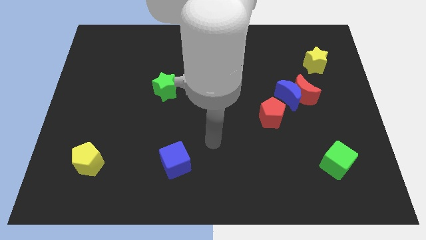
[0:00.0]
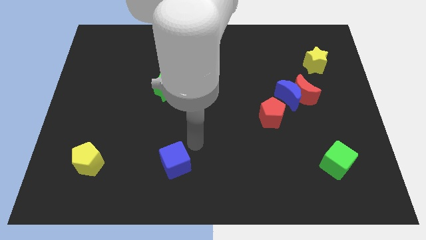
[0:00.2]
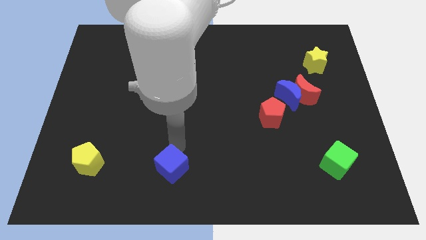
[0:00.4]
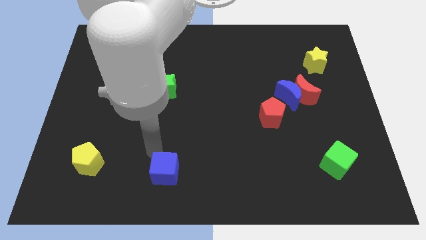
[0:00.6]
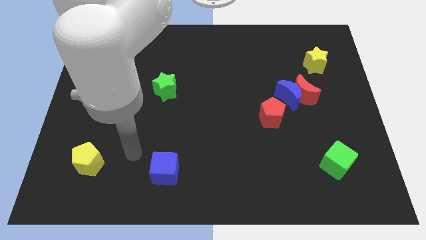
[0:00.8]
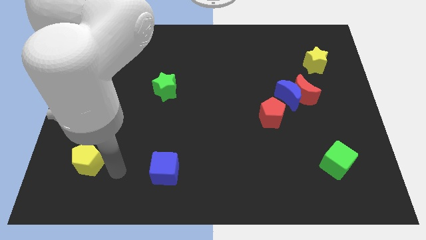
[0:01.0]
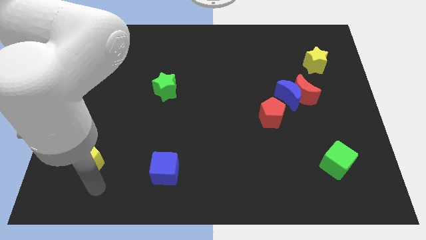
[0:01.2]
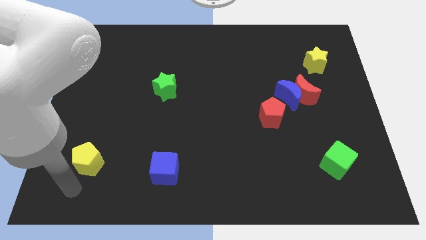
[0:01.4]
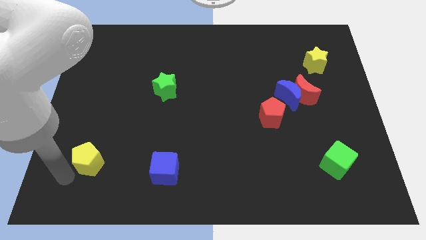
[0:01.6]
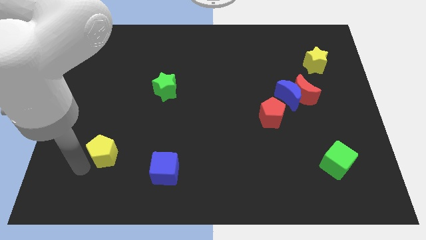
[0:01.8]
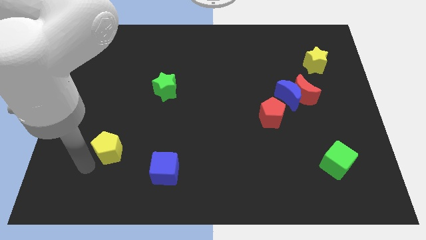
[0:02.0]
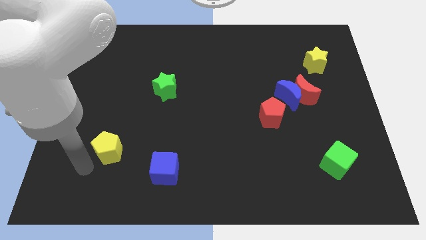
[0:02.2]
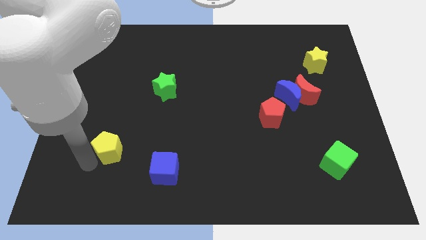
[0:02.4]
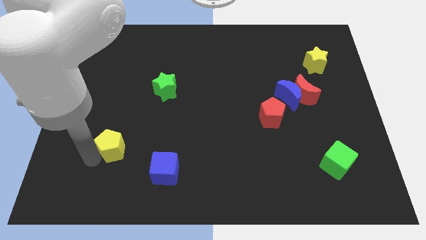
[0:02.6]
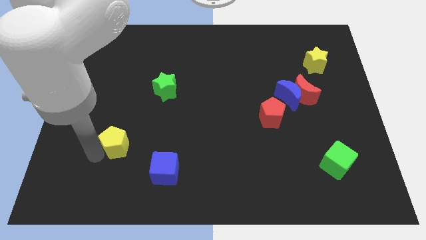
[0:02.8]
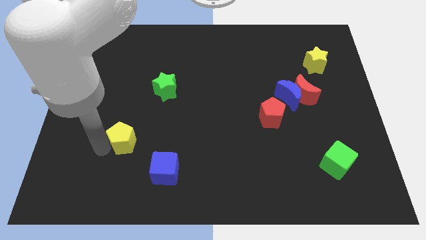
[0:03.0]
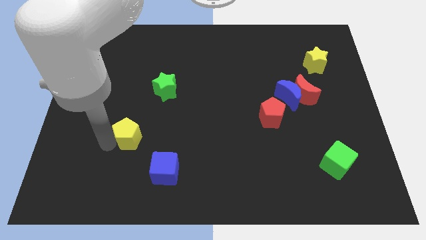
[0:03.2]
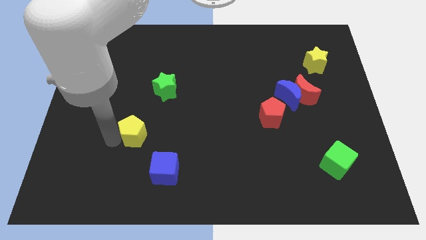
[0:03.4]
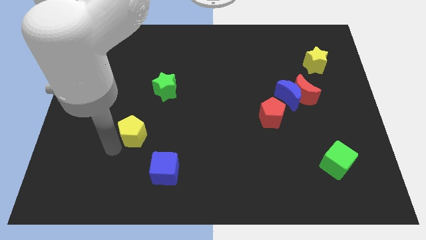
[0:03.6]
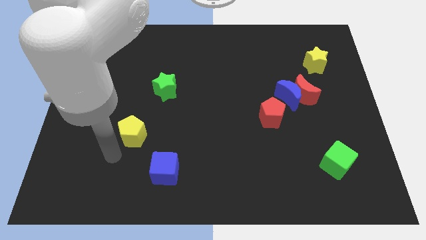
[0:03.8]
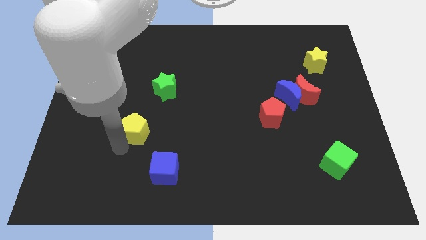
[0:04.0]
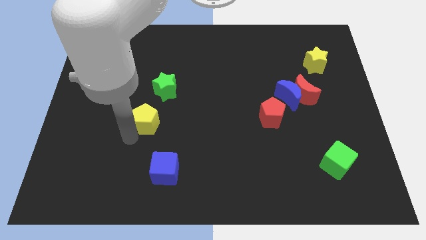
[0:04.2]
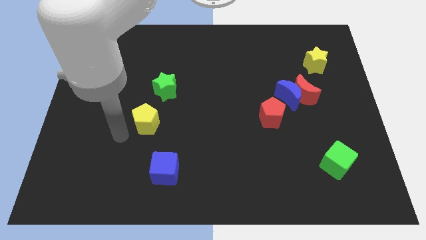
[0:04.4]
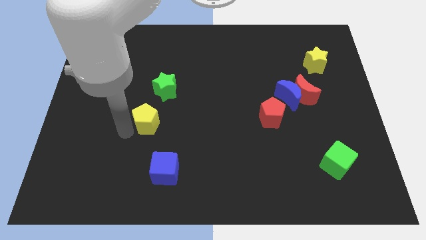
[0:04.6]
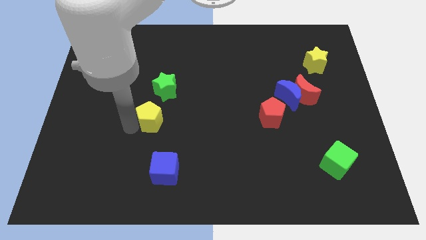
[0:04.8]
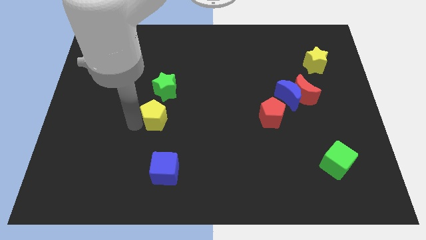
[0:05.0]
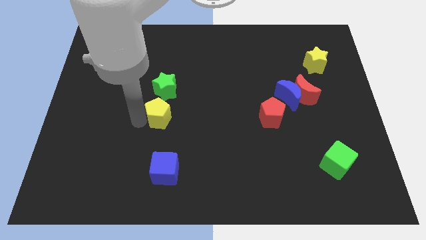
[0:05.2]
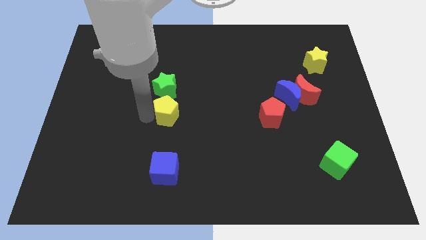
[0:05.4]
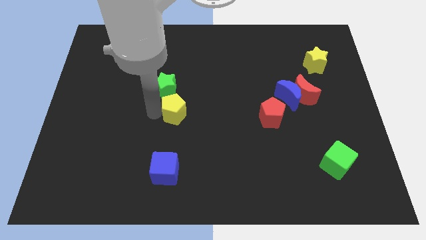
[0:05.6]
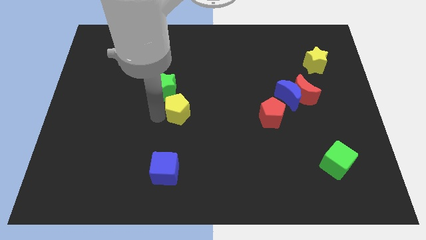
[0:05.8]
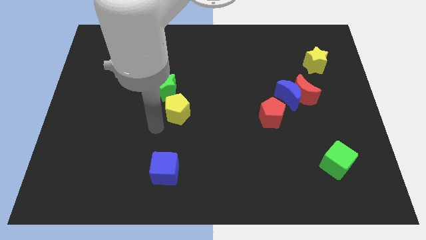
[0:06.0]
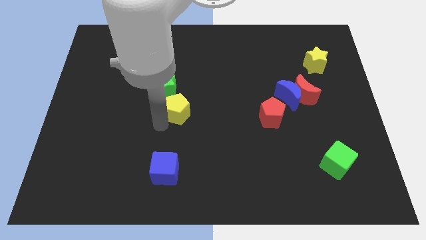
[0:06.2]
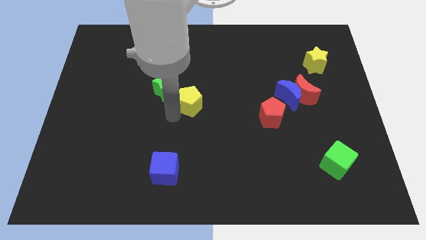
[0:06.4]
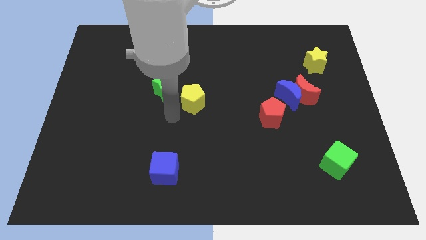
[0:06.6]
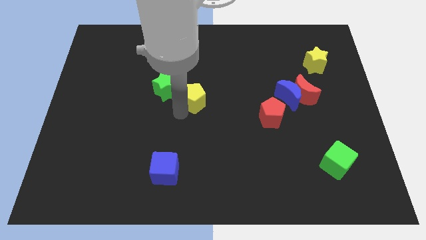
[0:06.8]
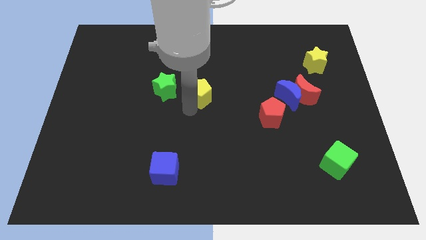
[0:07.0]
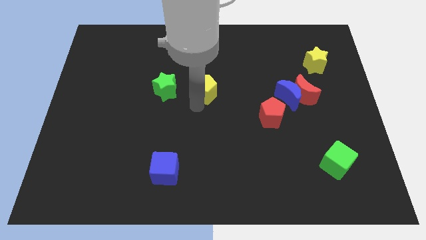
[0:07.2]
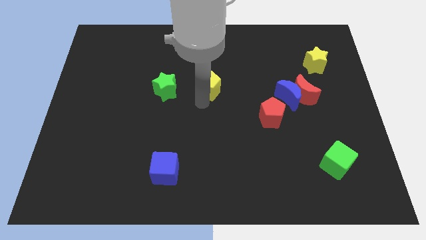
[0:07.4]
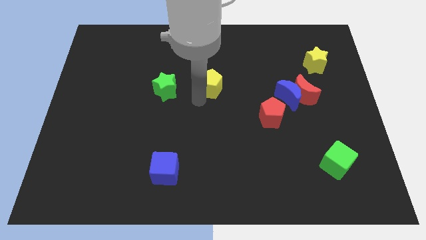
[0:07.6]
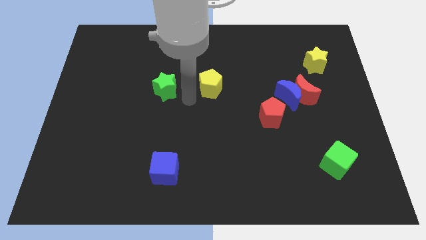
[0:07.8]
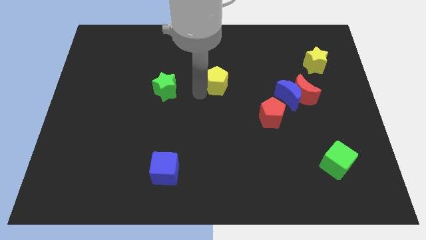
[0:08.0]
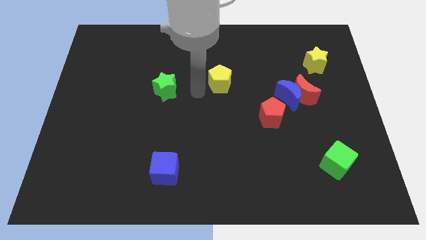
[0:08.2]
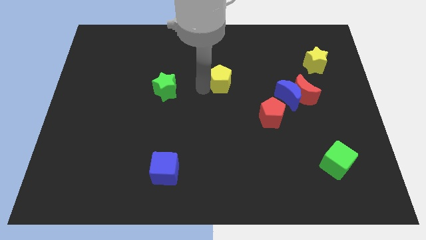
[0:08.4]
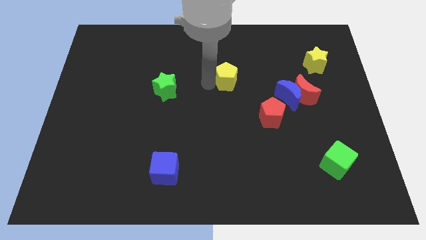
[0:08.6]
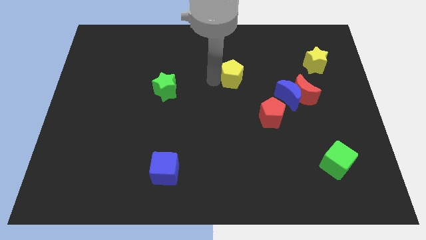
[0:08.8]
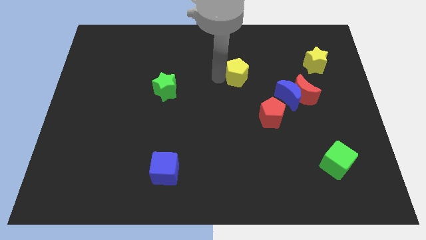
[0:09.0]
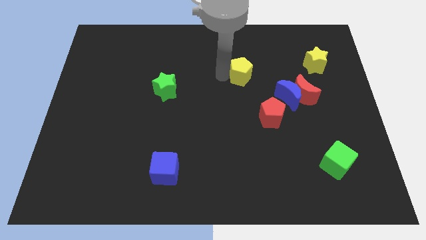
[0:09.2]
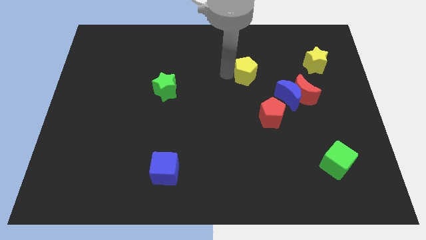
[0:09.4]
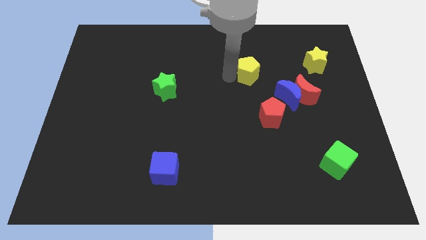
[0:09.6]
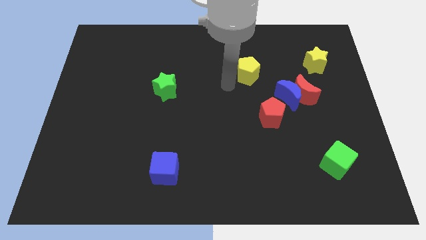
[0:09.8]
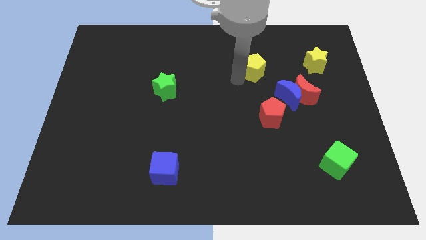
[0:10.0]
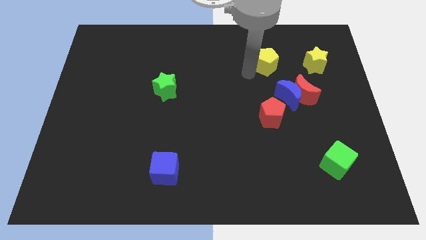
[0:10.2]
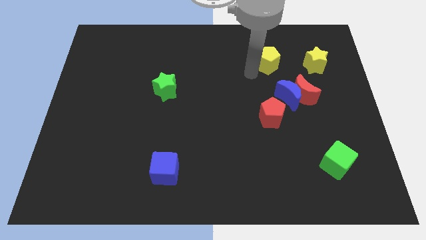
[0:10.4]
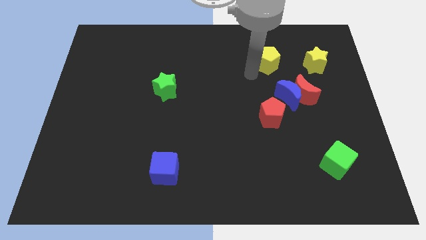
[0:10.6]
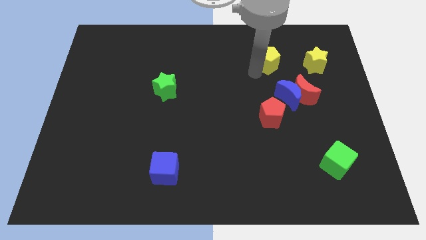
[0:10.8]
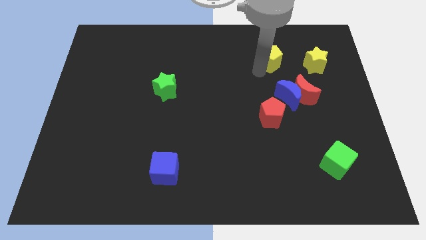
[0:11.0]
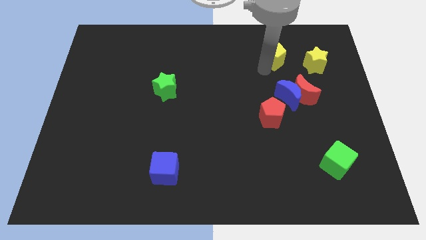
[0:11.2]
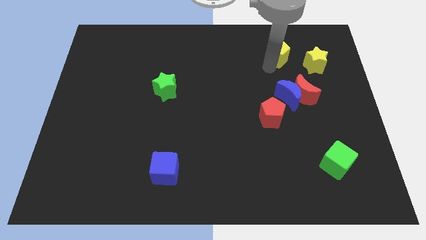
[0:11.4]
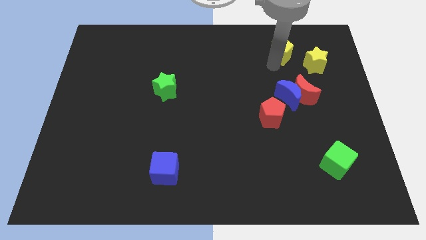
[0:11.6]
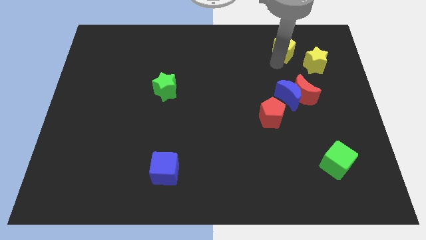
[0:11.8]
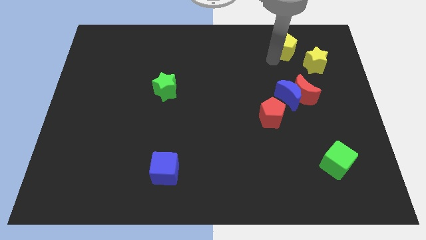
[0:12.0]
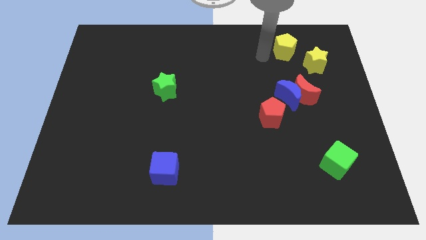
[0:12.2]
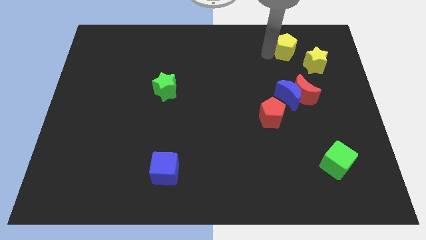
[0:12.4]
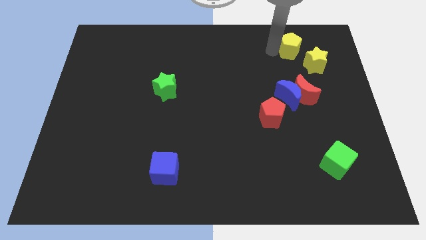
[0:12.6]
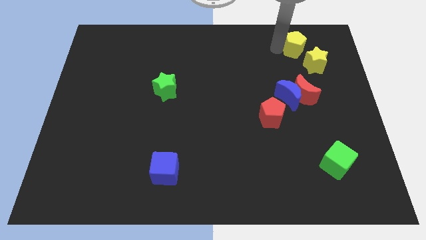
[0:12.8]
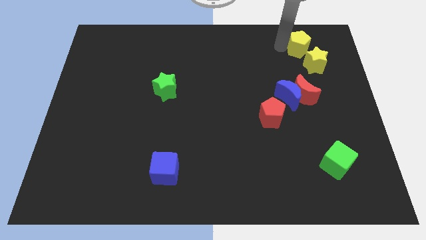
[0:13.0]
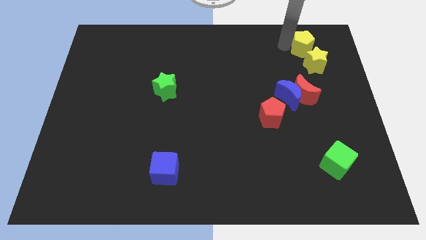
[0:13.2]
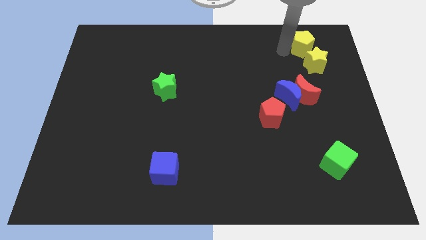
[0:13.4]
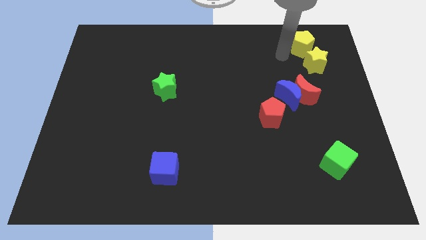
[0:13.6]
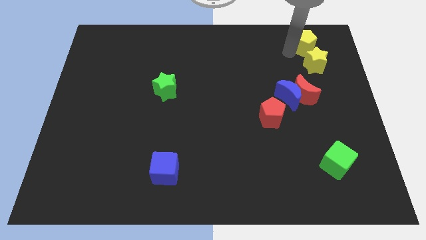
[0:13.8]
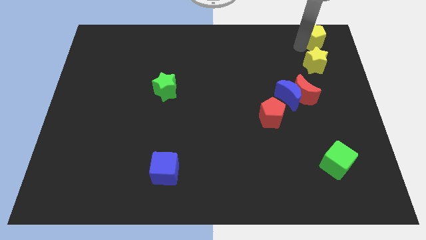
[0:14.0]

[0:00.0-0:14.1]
push the yellow pentagon to the upper right corner
